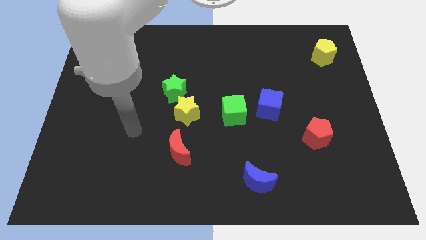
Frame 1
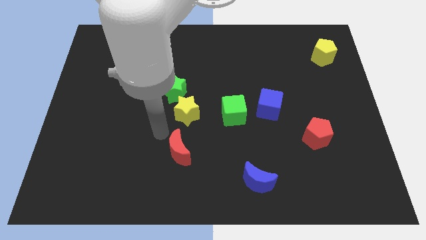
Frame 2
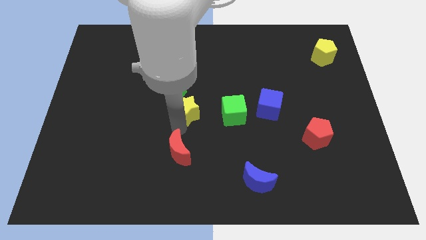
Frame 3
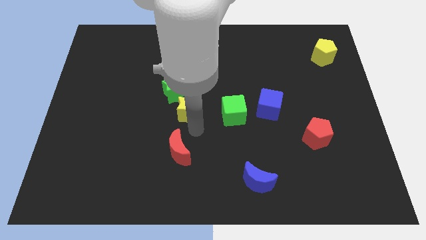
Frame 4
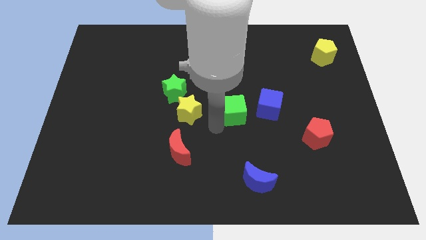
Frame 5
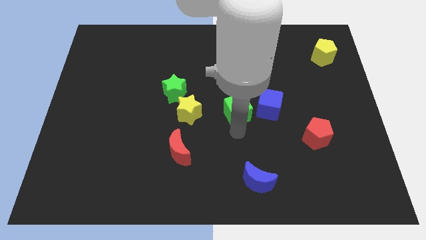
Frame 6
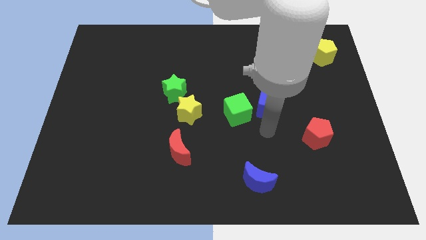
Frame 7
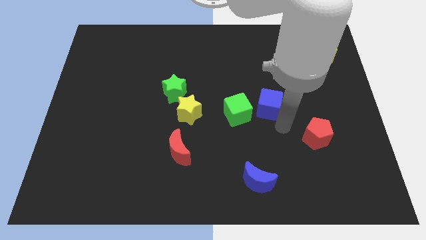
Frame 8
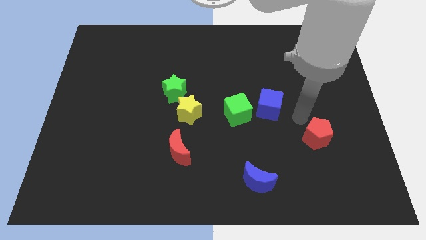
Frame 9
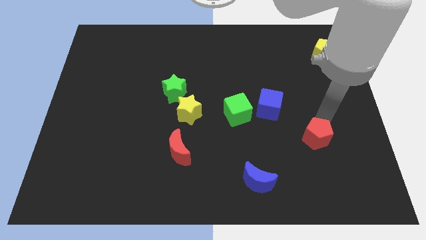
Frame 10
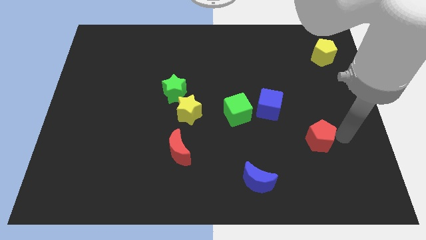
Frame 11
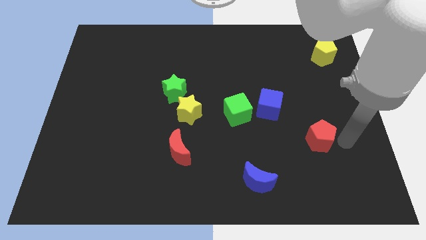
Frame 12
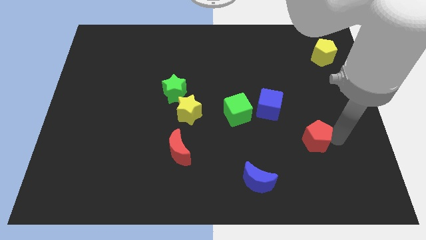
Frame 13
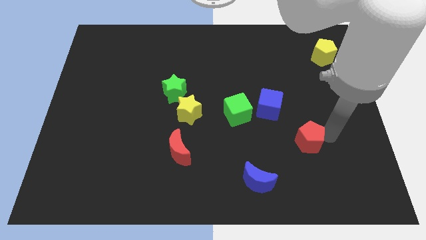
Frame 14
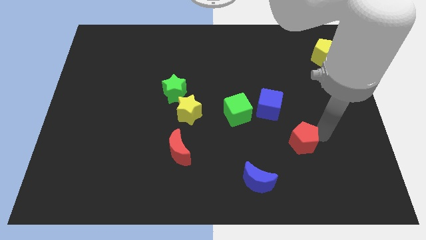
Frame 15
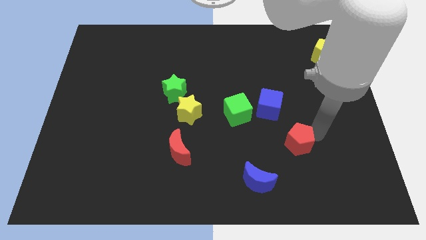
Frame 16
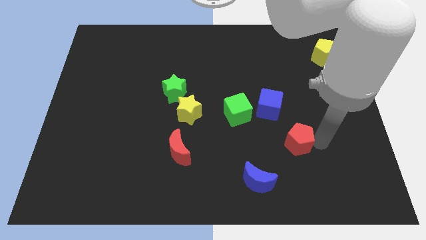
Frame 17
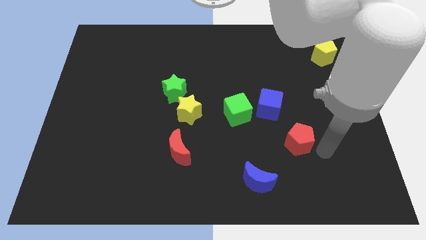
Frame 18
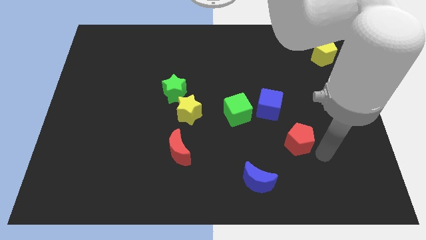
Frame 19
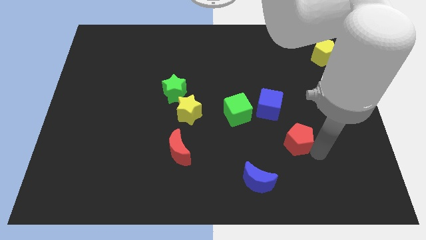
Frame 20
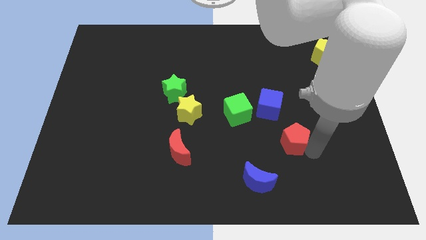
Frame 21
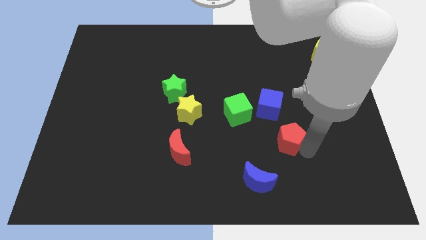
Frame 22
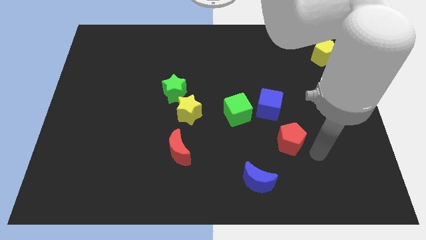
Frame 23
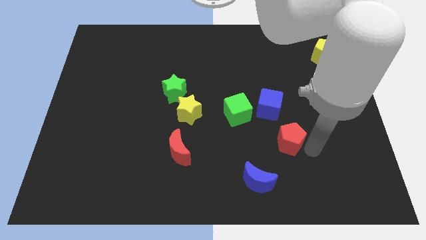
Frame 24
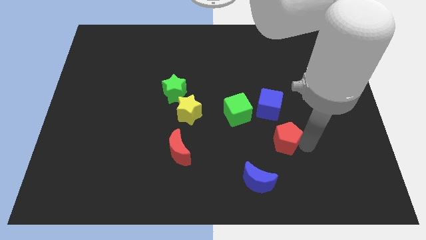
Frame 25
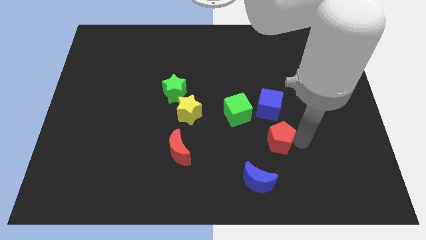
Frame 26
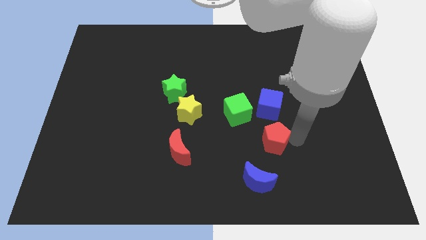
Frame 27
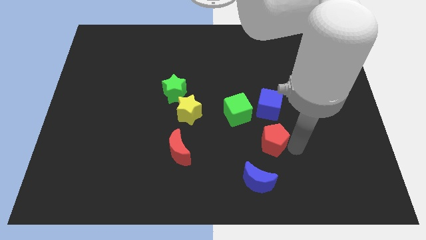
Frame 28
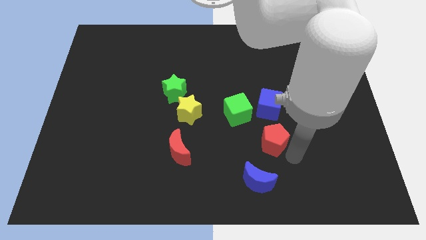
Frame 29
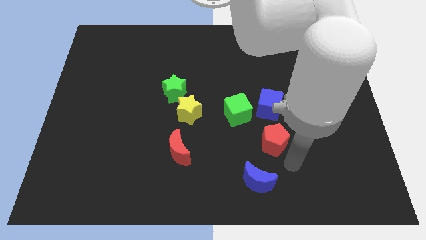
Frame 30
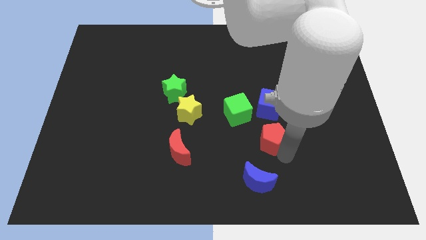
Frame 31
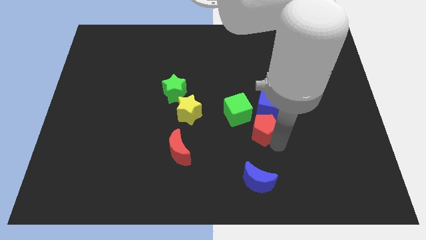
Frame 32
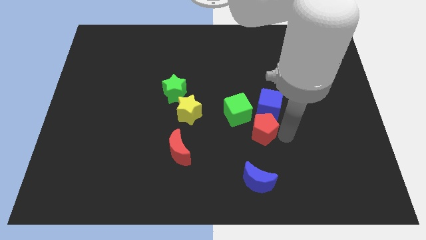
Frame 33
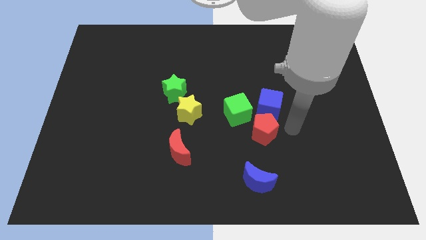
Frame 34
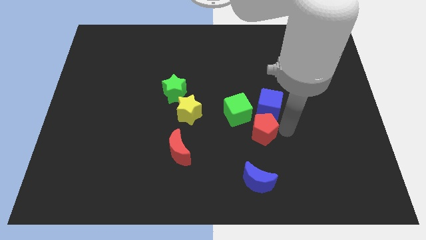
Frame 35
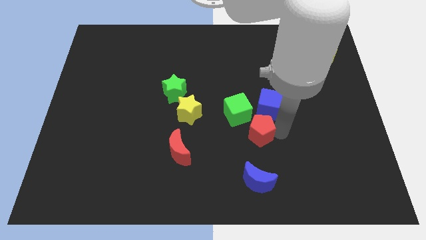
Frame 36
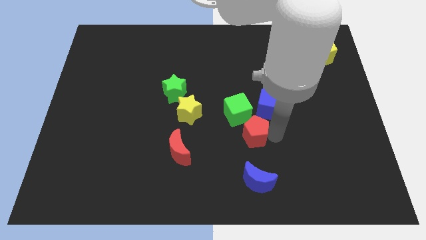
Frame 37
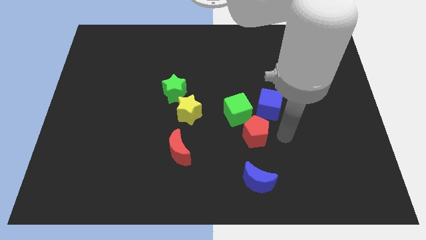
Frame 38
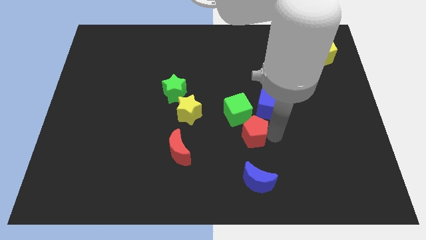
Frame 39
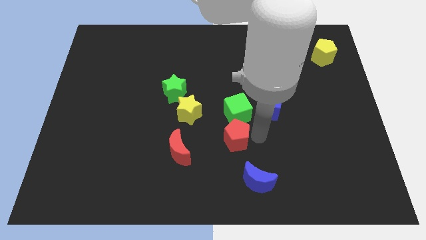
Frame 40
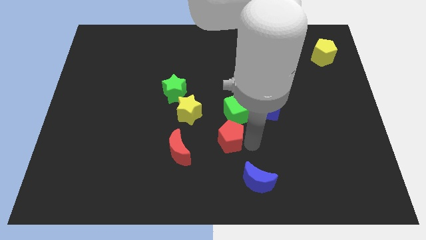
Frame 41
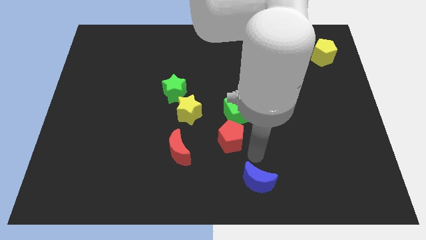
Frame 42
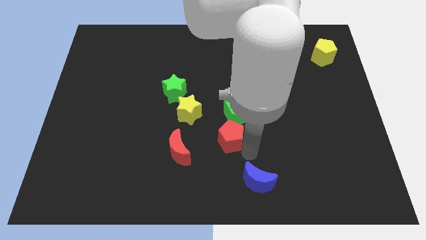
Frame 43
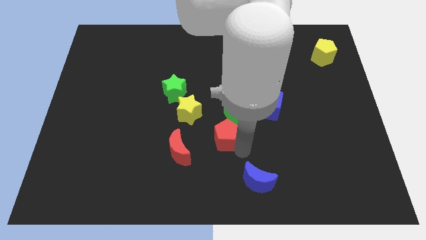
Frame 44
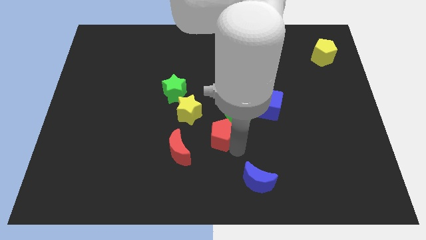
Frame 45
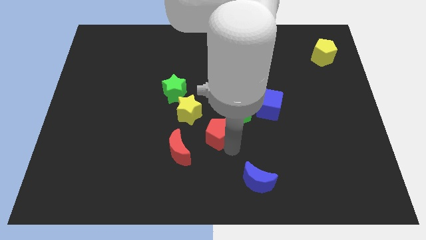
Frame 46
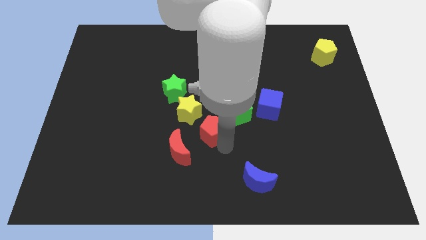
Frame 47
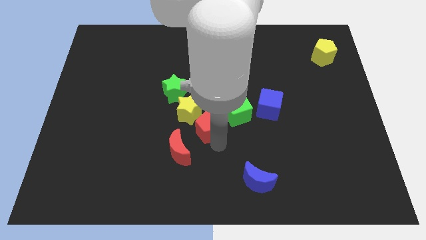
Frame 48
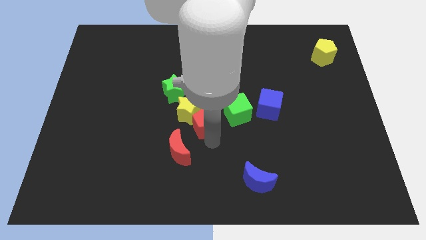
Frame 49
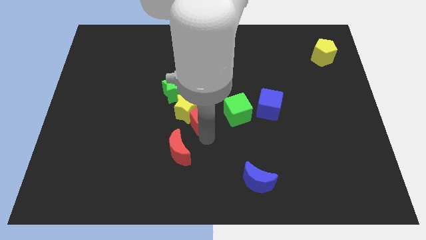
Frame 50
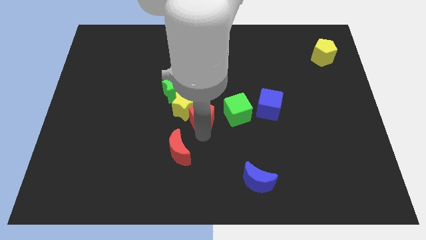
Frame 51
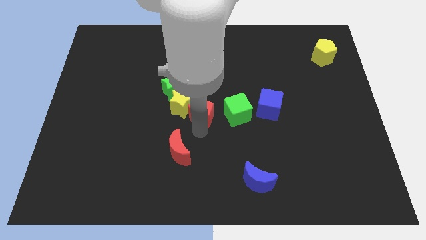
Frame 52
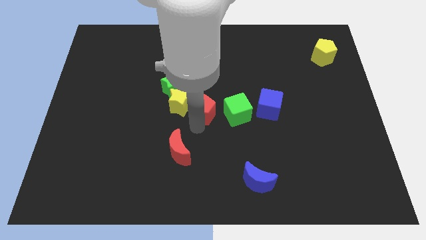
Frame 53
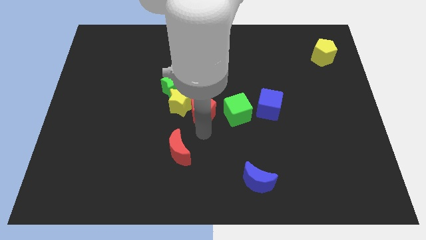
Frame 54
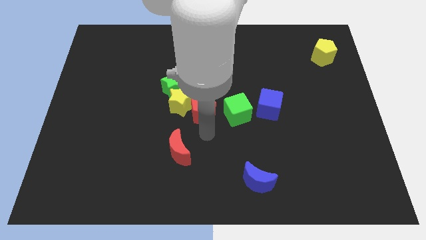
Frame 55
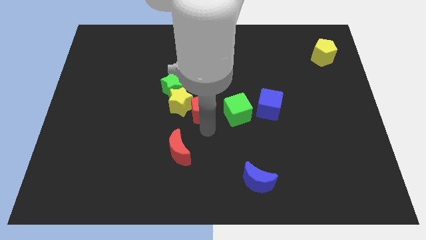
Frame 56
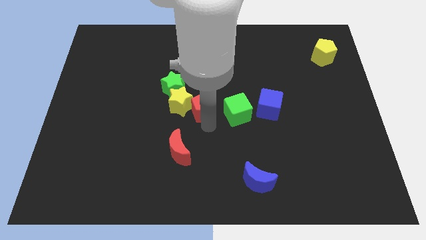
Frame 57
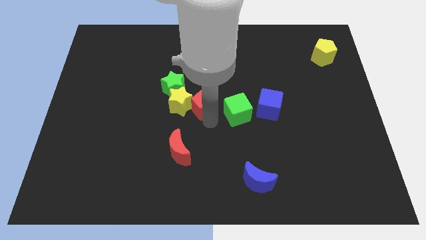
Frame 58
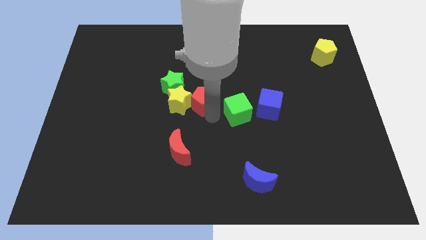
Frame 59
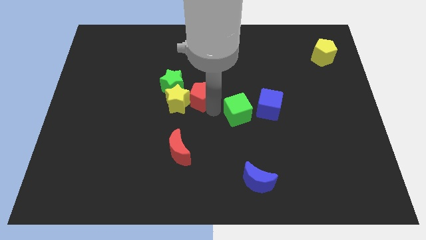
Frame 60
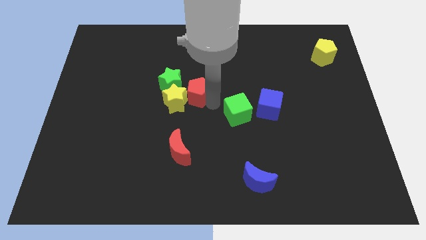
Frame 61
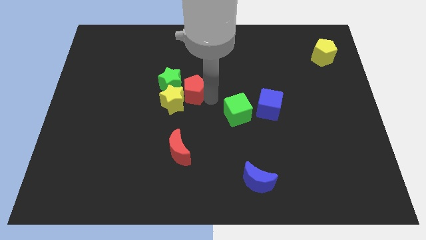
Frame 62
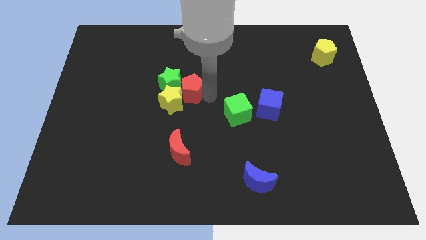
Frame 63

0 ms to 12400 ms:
push the red pentagon towards the green star

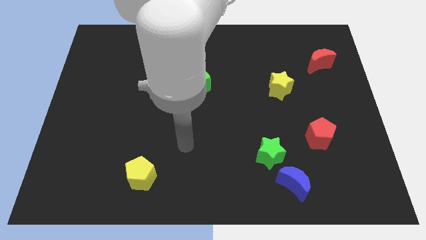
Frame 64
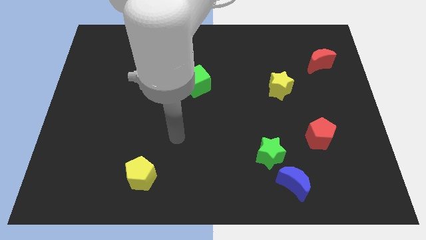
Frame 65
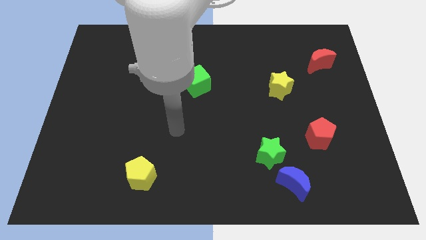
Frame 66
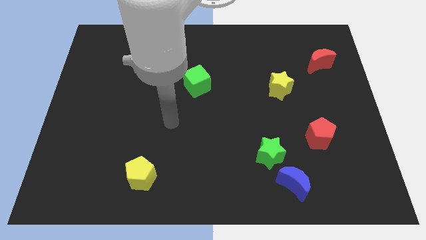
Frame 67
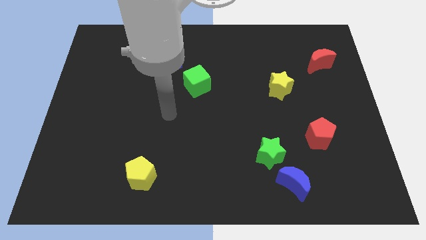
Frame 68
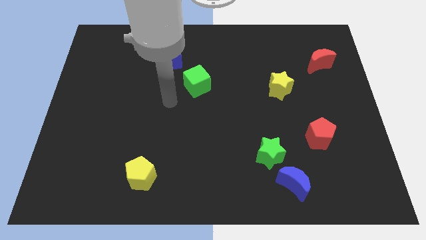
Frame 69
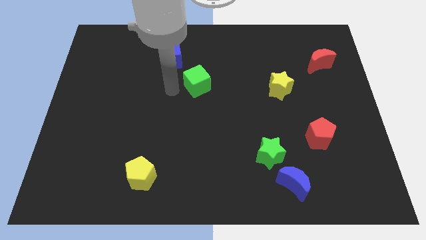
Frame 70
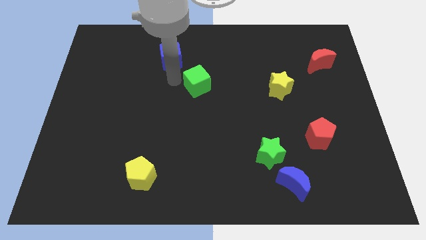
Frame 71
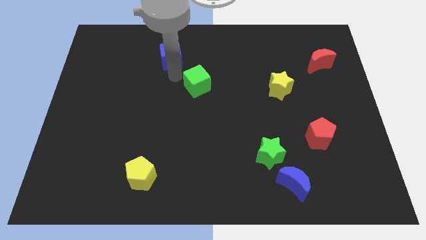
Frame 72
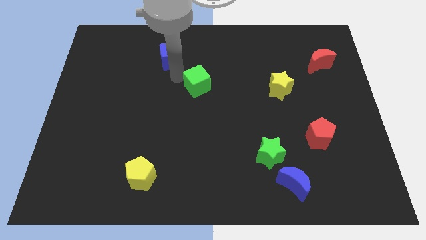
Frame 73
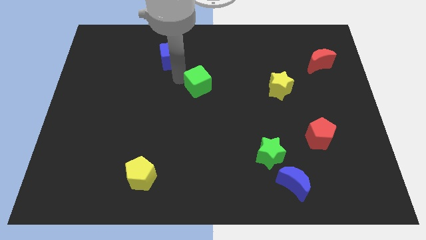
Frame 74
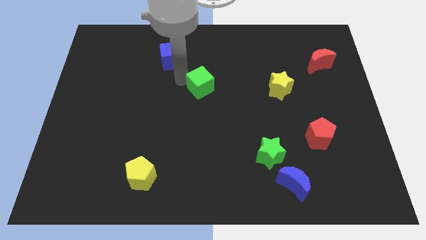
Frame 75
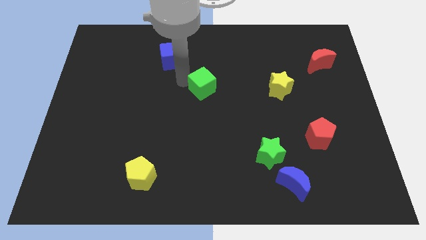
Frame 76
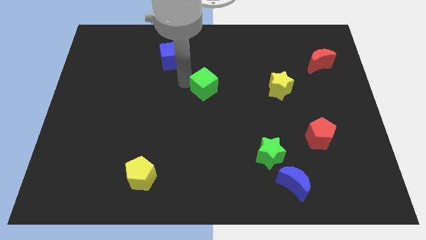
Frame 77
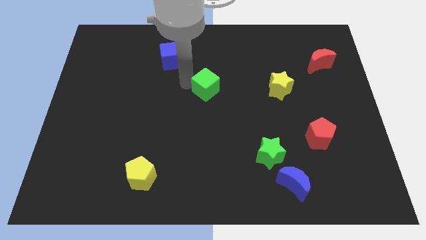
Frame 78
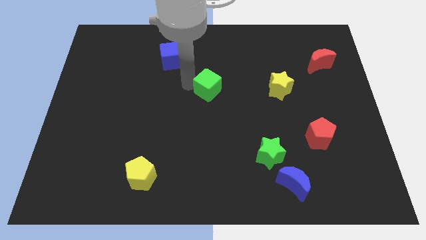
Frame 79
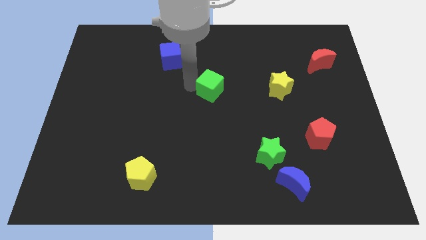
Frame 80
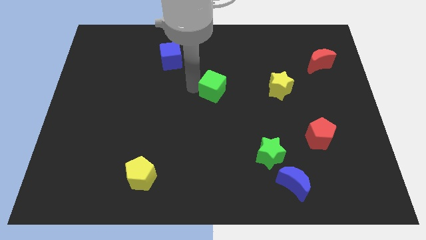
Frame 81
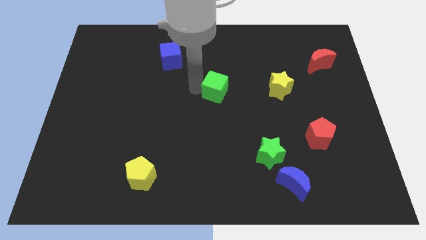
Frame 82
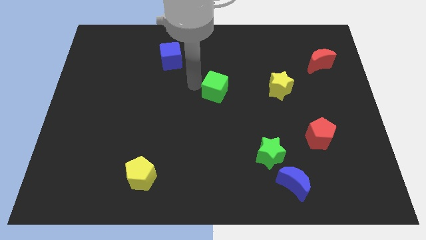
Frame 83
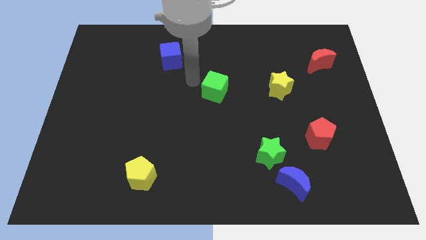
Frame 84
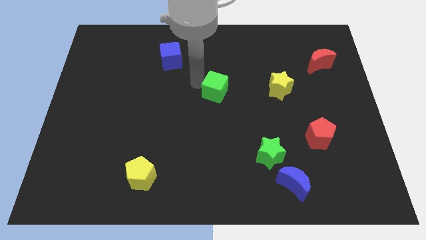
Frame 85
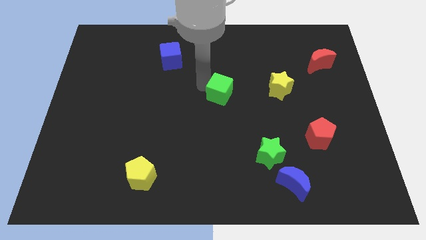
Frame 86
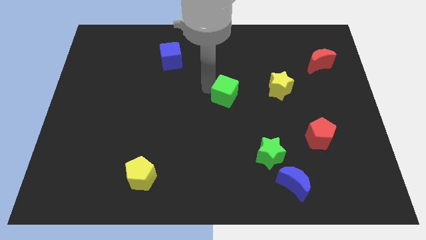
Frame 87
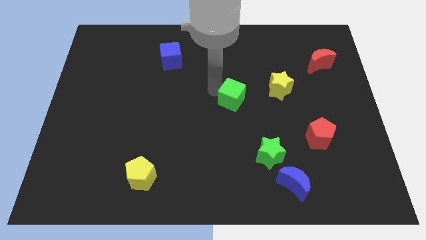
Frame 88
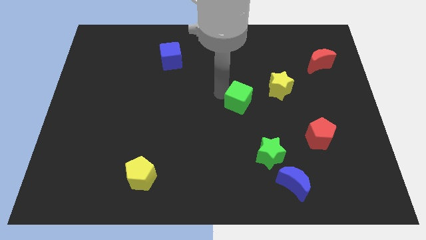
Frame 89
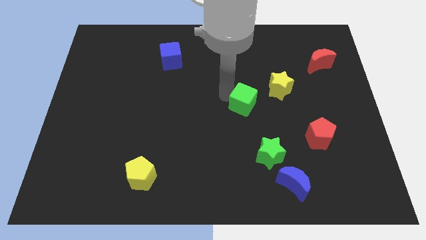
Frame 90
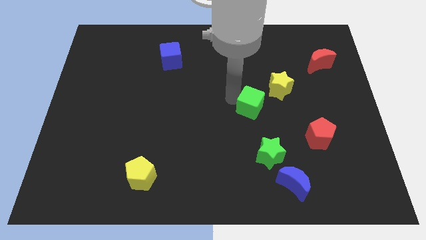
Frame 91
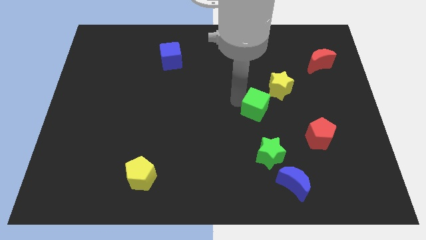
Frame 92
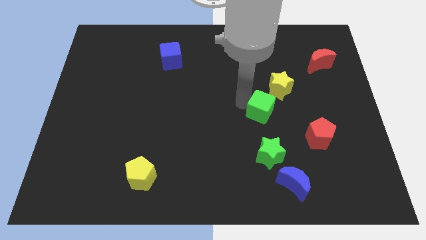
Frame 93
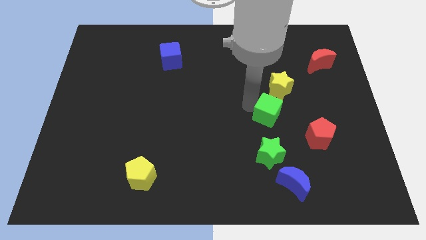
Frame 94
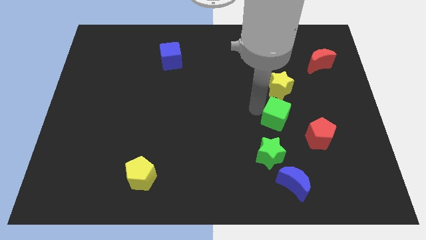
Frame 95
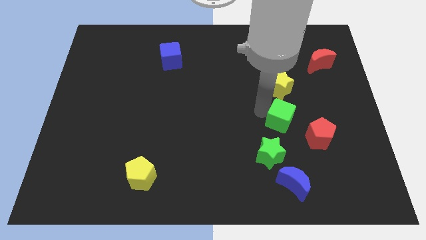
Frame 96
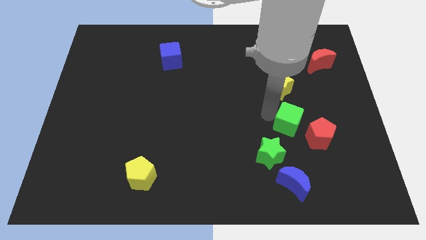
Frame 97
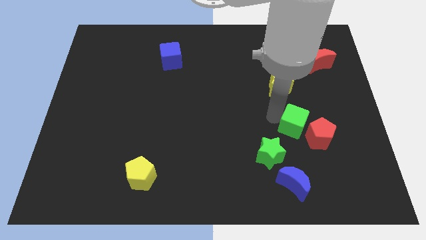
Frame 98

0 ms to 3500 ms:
move the green cube to the red pentagon
